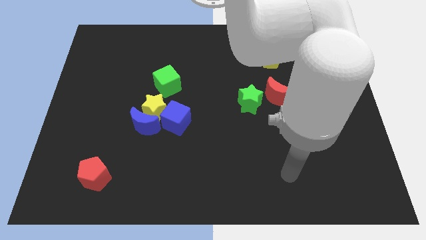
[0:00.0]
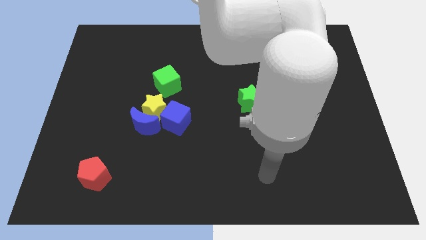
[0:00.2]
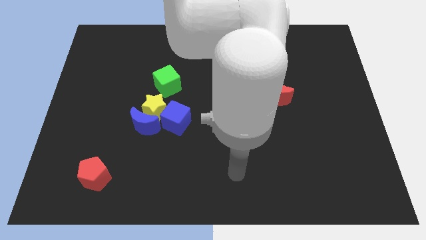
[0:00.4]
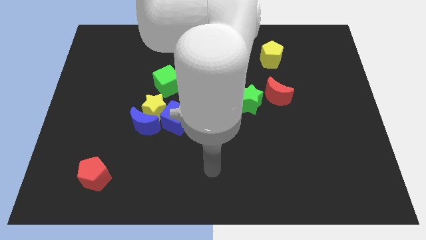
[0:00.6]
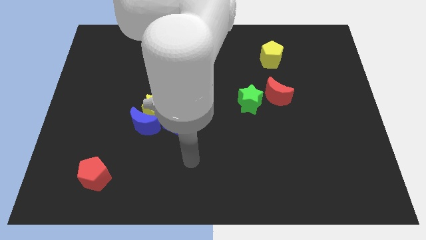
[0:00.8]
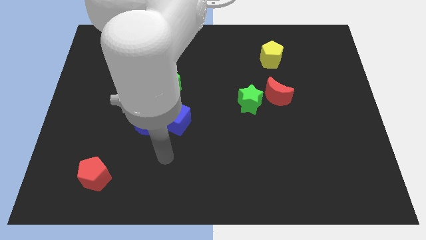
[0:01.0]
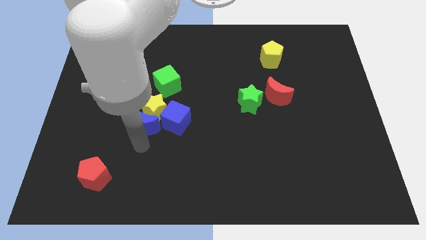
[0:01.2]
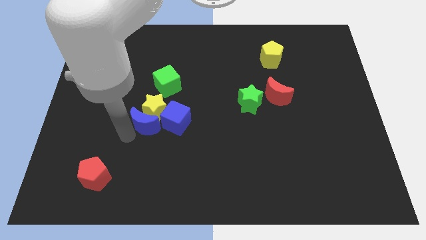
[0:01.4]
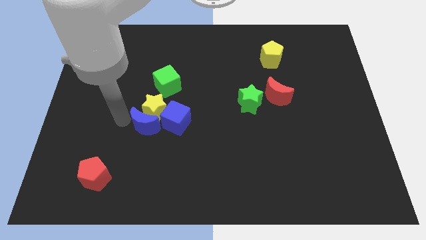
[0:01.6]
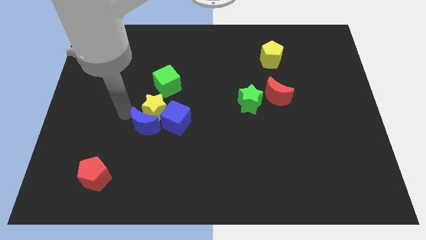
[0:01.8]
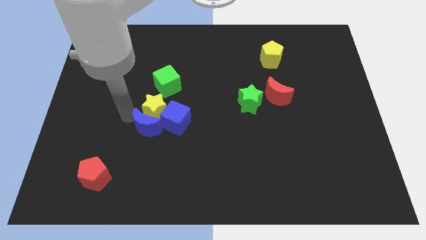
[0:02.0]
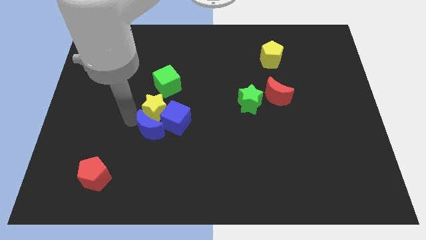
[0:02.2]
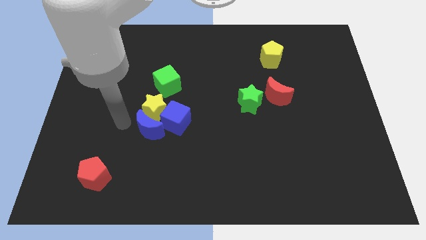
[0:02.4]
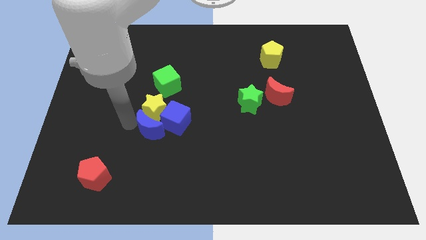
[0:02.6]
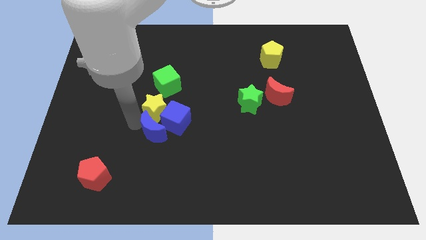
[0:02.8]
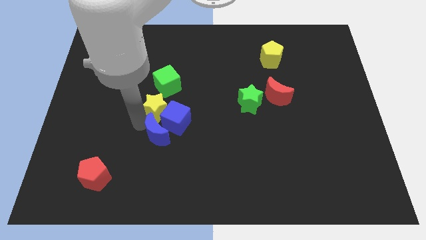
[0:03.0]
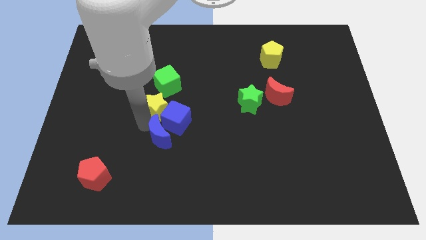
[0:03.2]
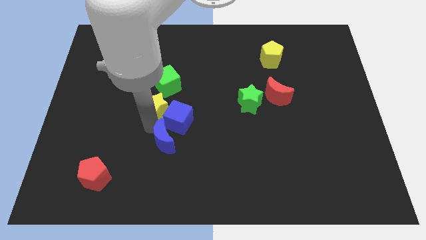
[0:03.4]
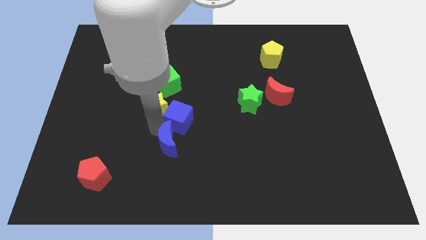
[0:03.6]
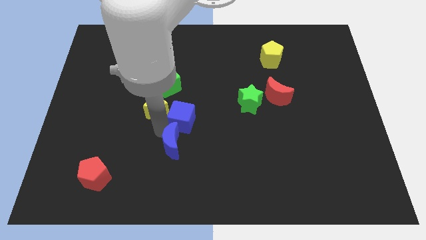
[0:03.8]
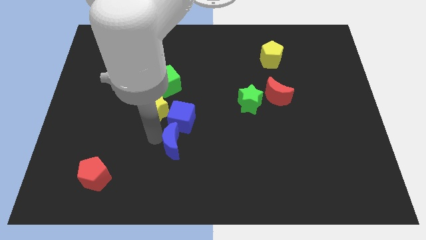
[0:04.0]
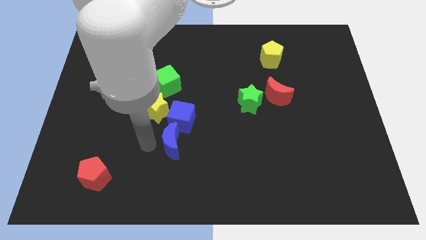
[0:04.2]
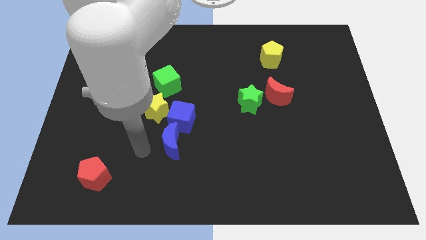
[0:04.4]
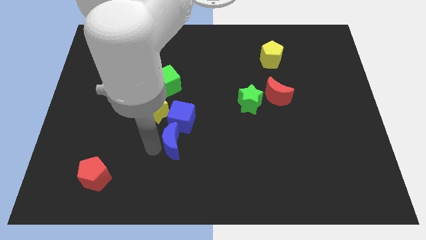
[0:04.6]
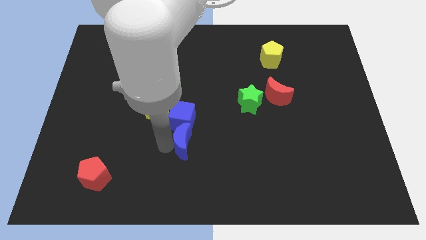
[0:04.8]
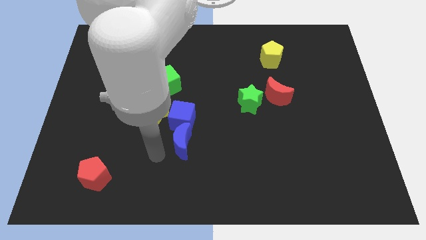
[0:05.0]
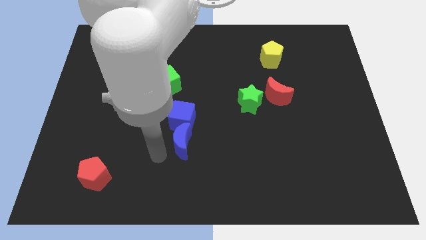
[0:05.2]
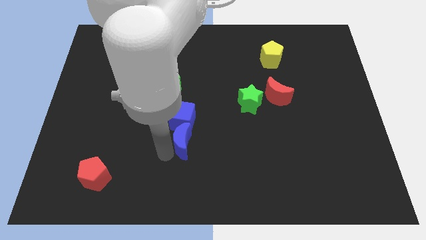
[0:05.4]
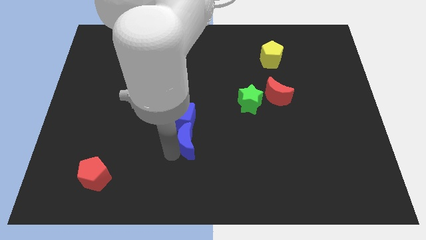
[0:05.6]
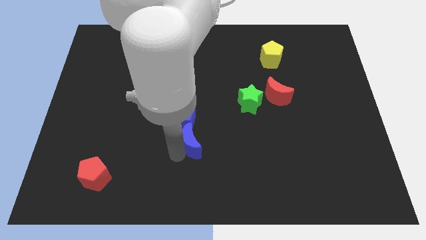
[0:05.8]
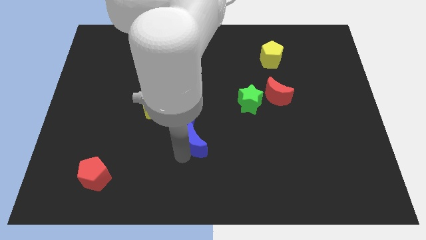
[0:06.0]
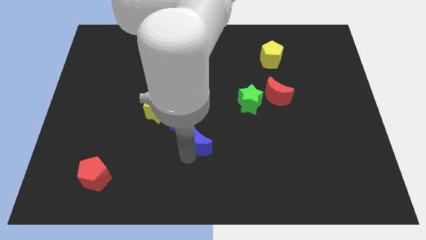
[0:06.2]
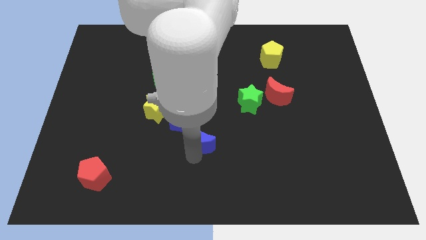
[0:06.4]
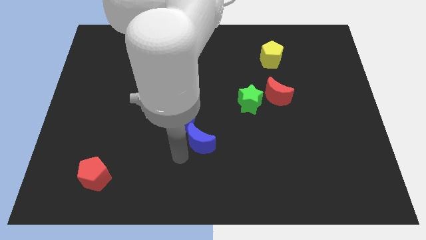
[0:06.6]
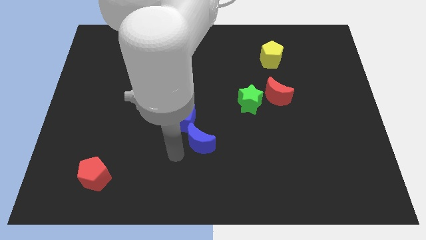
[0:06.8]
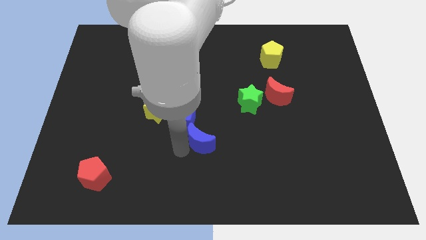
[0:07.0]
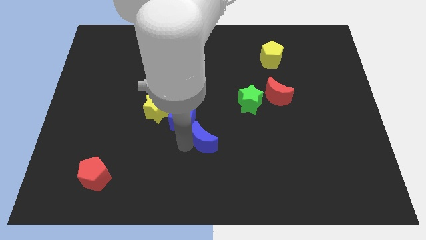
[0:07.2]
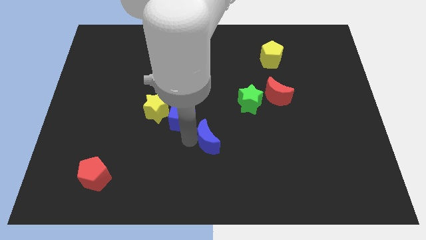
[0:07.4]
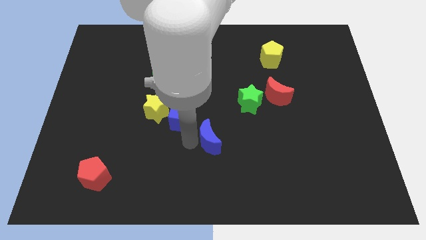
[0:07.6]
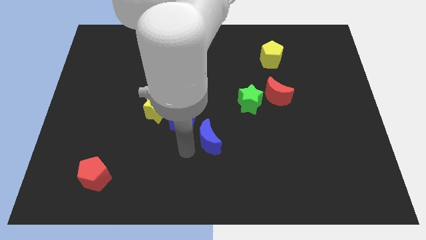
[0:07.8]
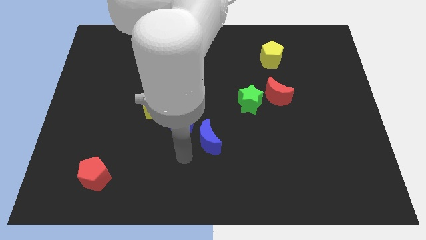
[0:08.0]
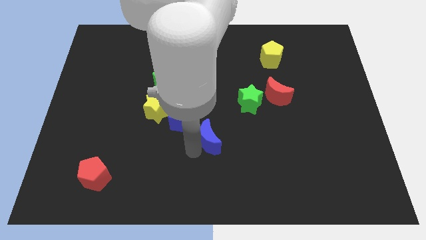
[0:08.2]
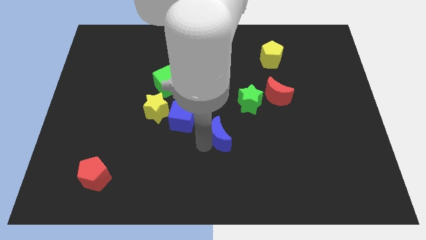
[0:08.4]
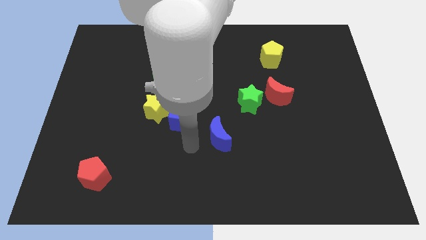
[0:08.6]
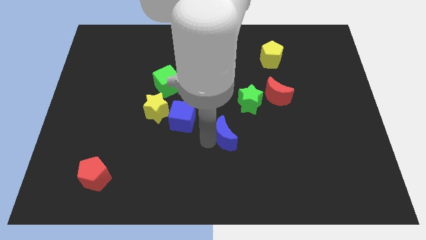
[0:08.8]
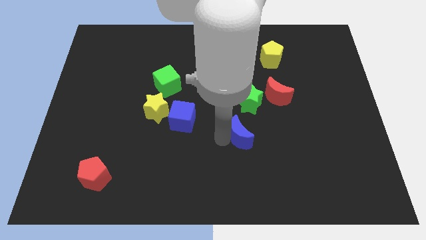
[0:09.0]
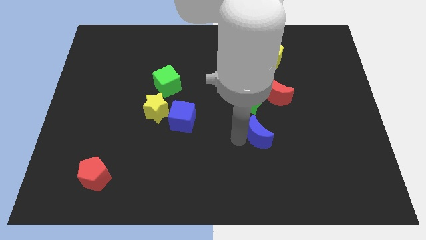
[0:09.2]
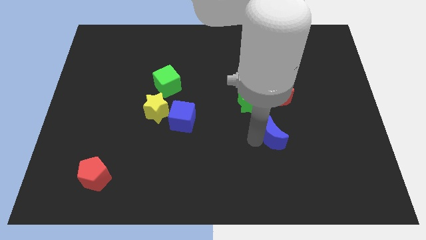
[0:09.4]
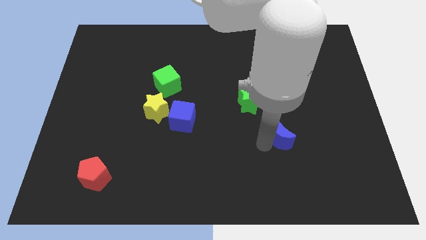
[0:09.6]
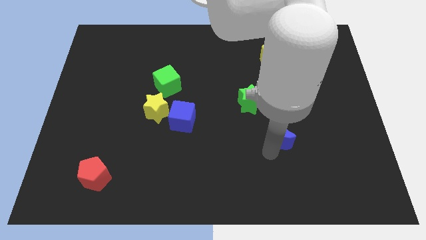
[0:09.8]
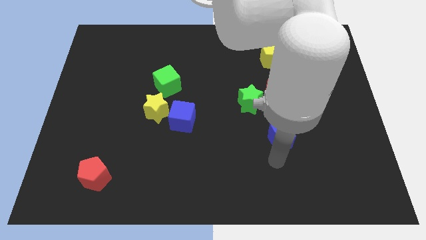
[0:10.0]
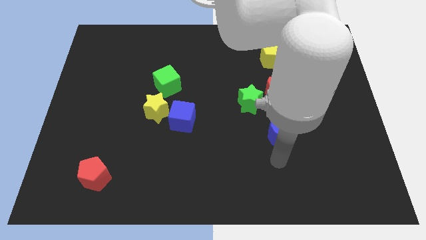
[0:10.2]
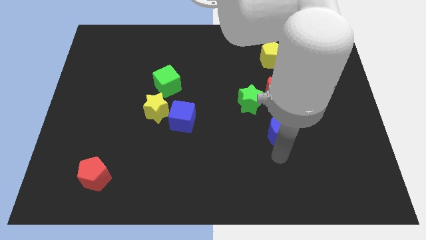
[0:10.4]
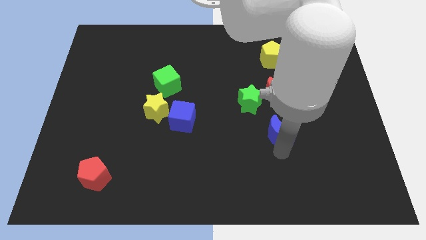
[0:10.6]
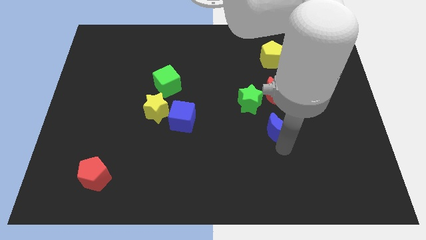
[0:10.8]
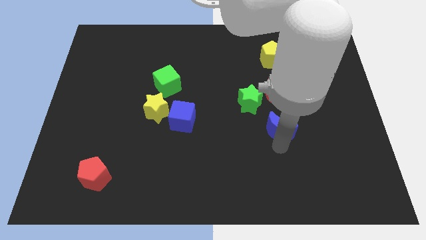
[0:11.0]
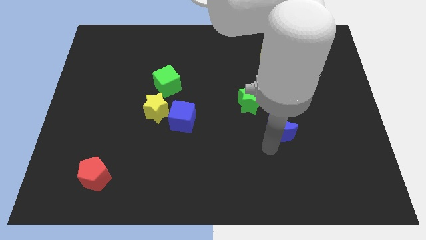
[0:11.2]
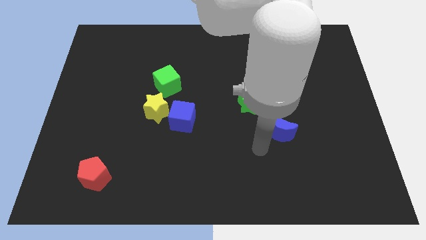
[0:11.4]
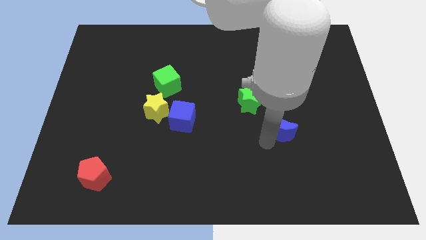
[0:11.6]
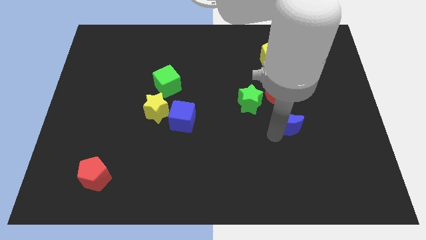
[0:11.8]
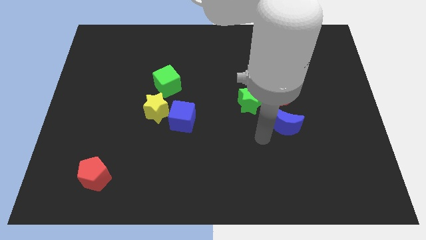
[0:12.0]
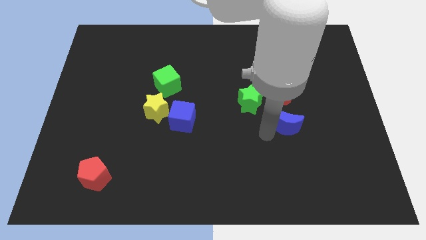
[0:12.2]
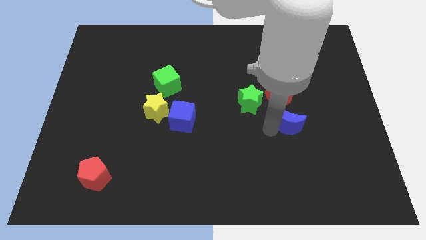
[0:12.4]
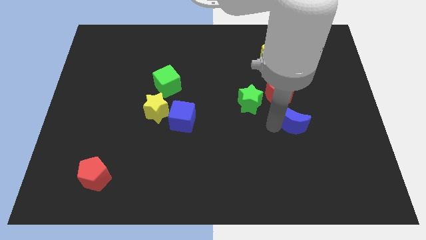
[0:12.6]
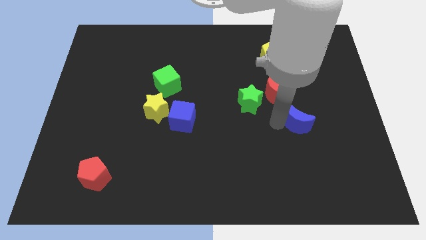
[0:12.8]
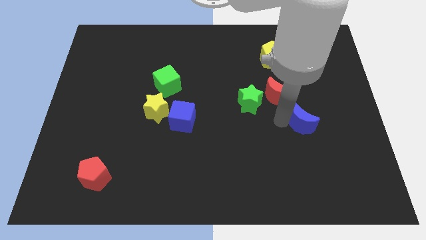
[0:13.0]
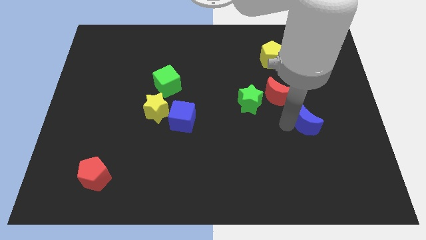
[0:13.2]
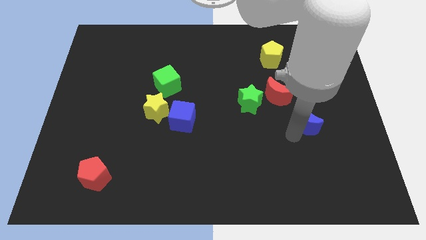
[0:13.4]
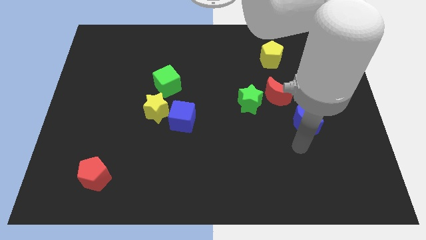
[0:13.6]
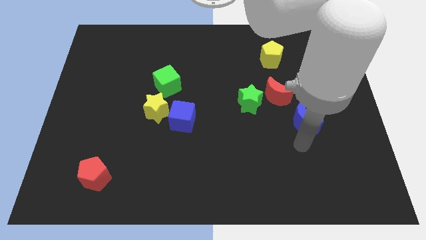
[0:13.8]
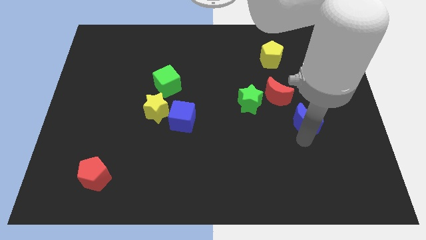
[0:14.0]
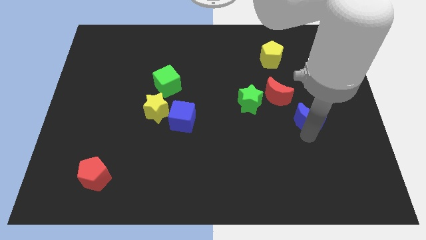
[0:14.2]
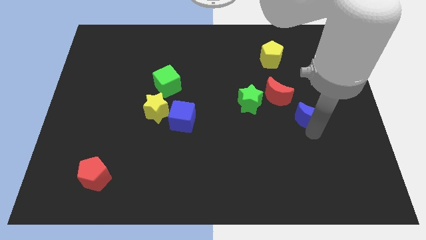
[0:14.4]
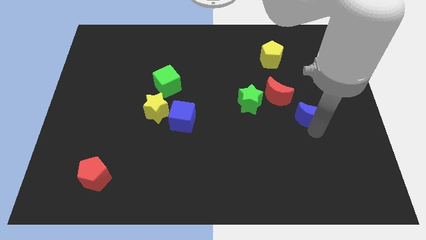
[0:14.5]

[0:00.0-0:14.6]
push the blue moon just right of the green star
